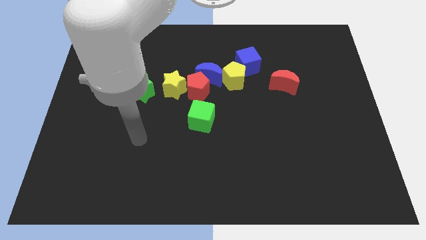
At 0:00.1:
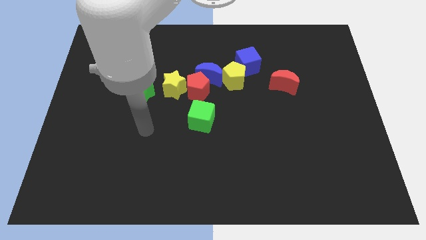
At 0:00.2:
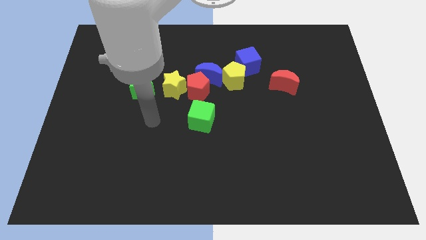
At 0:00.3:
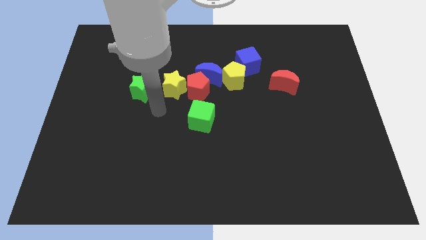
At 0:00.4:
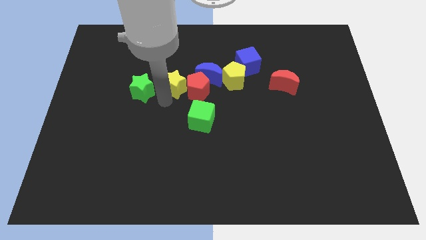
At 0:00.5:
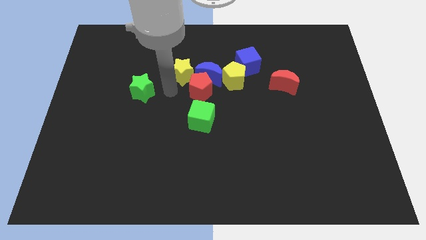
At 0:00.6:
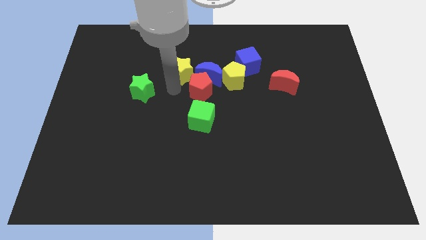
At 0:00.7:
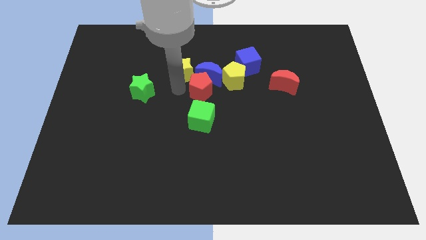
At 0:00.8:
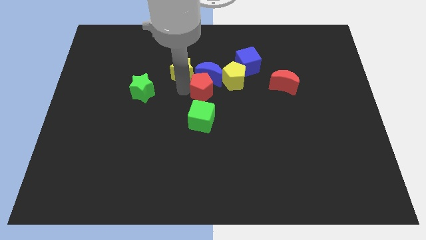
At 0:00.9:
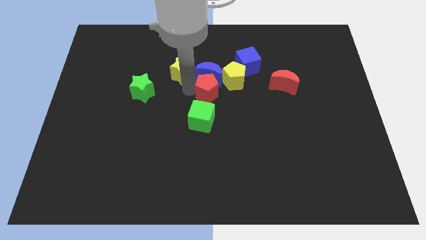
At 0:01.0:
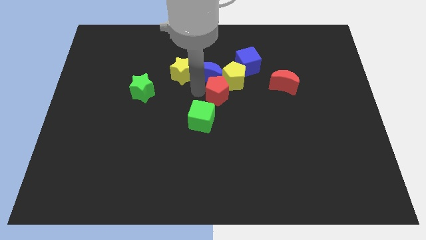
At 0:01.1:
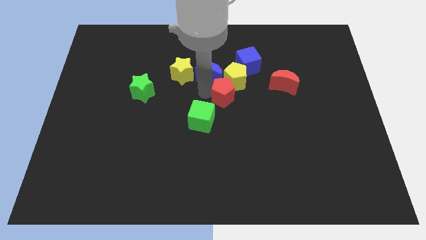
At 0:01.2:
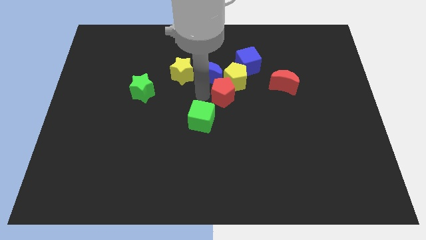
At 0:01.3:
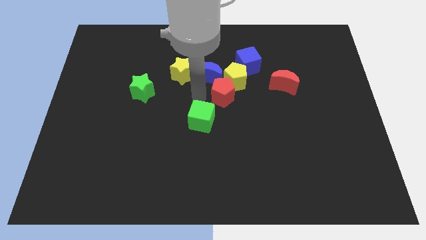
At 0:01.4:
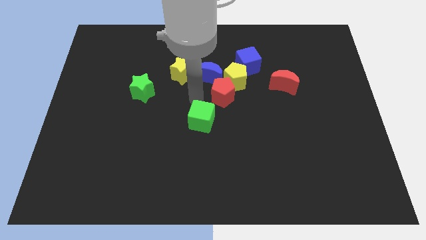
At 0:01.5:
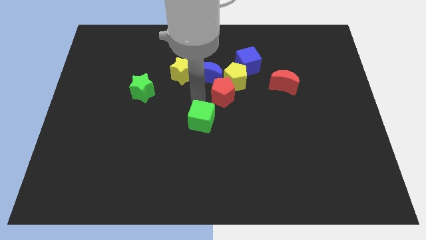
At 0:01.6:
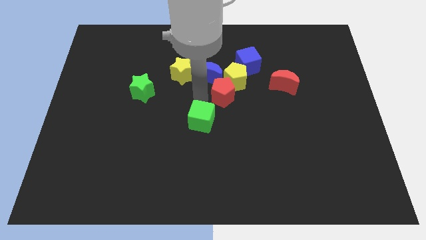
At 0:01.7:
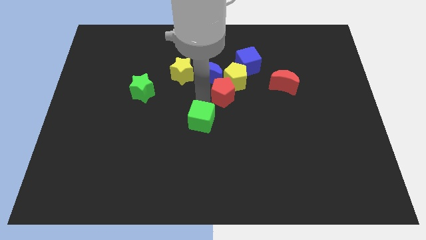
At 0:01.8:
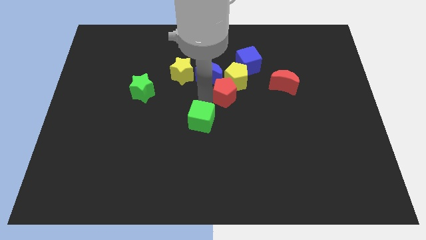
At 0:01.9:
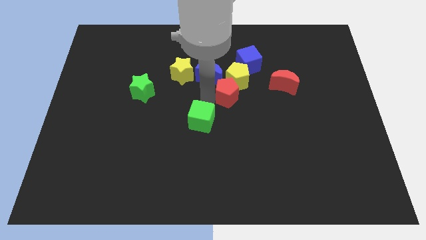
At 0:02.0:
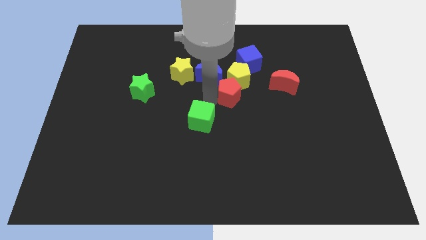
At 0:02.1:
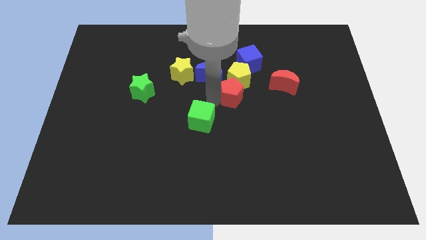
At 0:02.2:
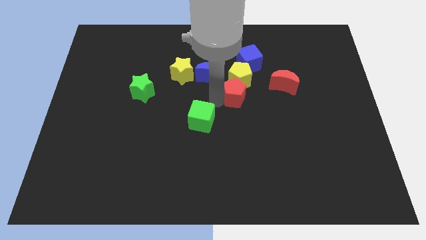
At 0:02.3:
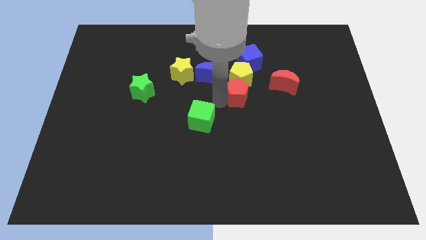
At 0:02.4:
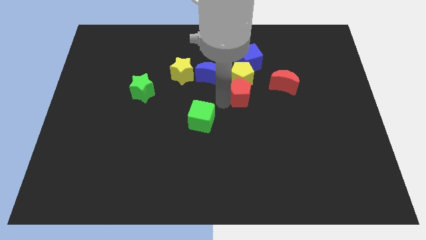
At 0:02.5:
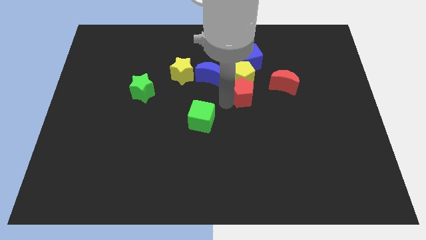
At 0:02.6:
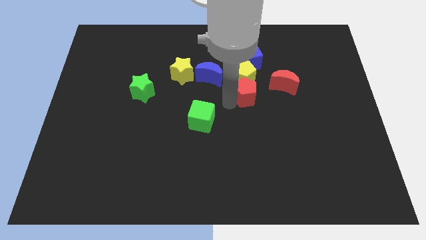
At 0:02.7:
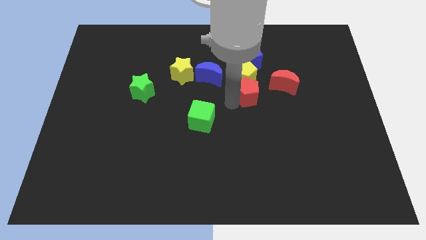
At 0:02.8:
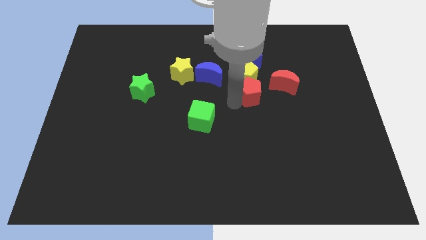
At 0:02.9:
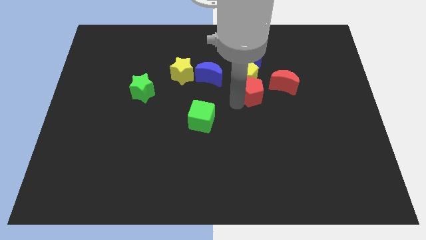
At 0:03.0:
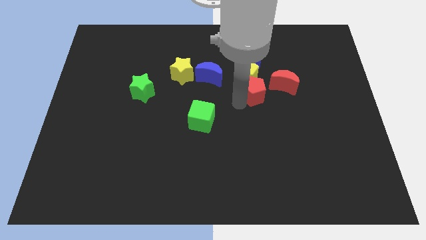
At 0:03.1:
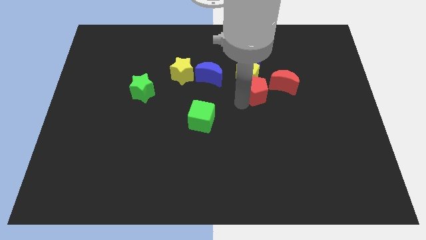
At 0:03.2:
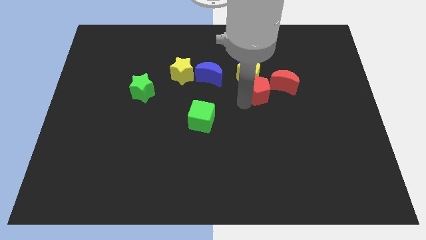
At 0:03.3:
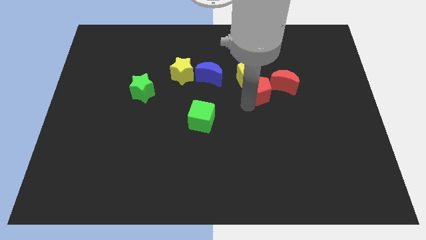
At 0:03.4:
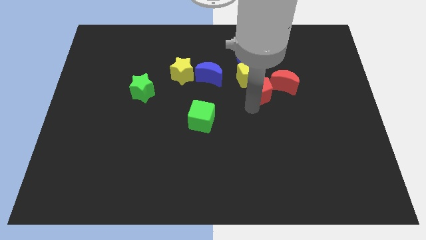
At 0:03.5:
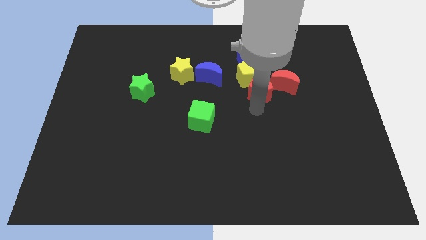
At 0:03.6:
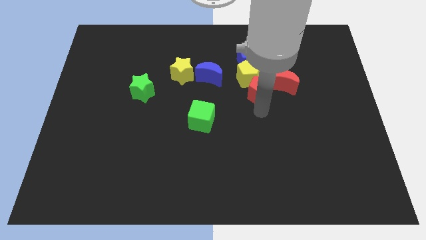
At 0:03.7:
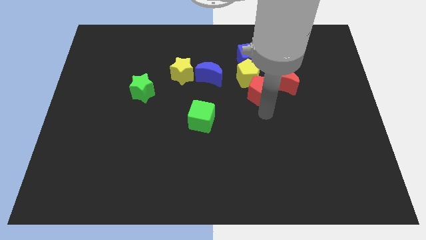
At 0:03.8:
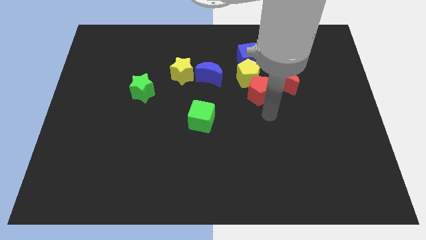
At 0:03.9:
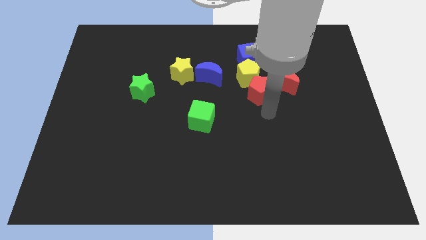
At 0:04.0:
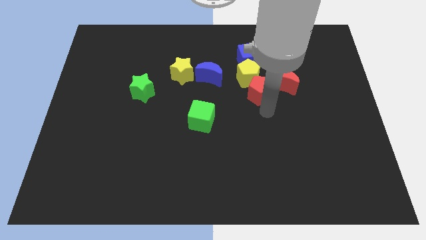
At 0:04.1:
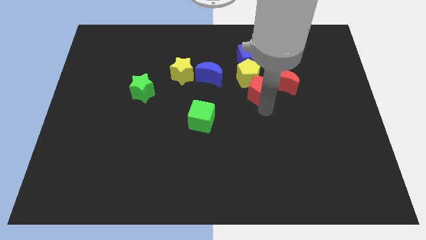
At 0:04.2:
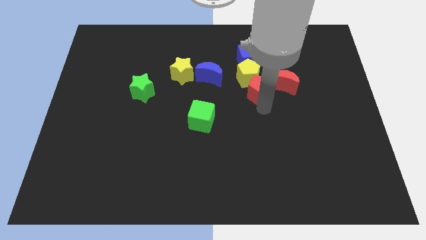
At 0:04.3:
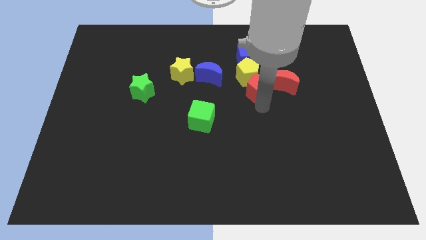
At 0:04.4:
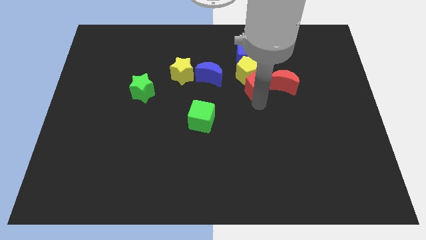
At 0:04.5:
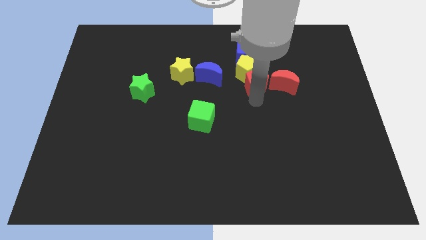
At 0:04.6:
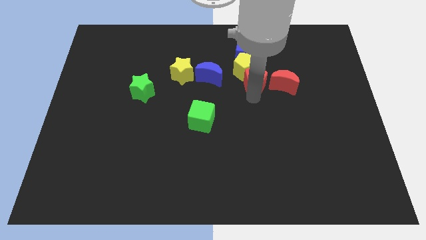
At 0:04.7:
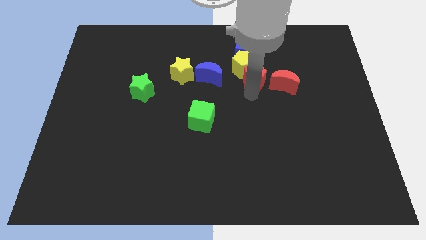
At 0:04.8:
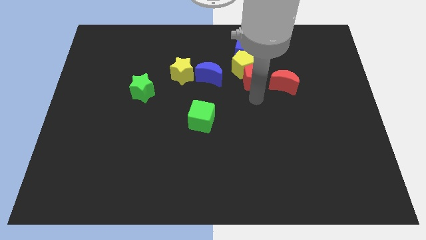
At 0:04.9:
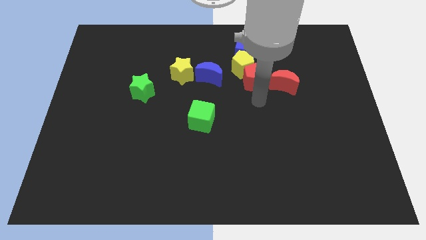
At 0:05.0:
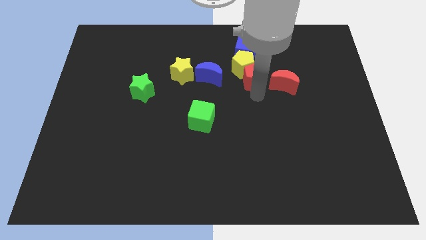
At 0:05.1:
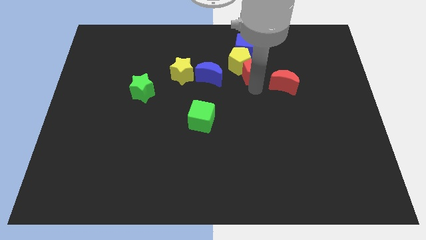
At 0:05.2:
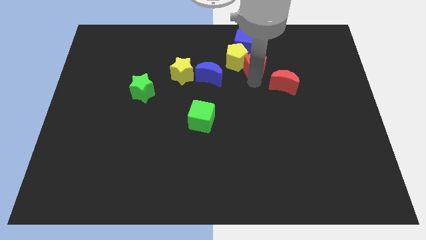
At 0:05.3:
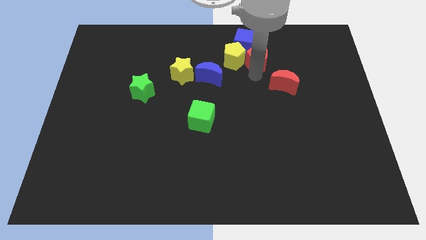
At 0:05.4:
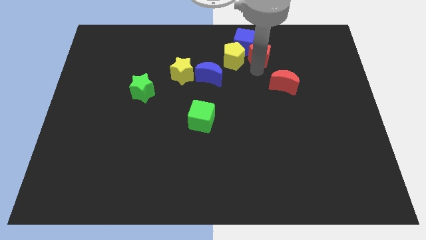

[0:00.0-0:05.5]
put the red pentagon to the blue cube

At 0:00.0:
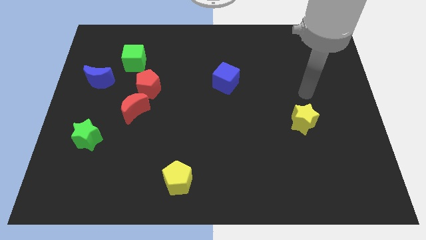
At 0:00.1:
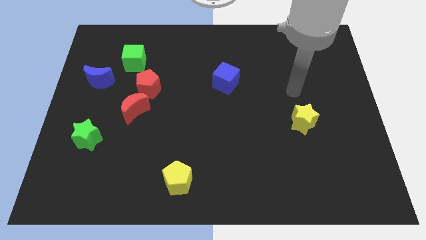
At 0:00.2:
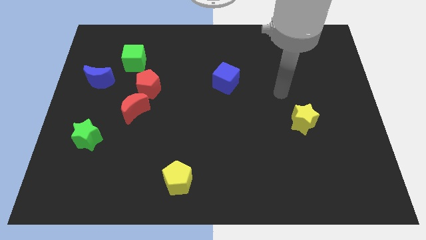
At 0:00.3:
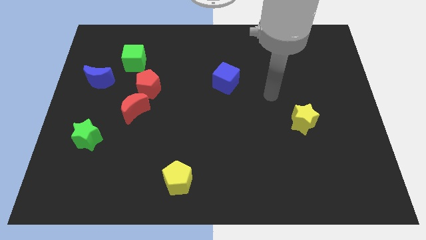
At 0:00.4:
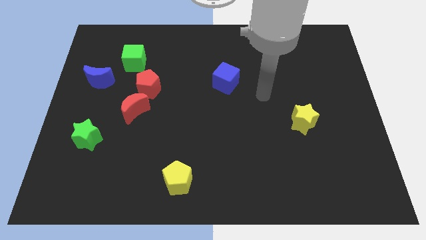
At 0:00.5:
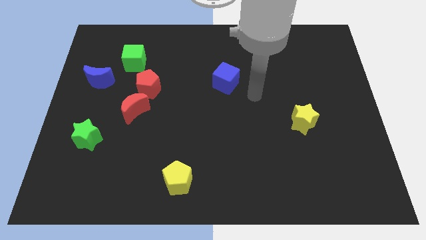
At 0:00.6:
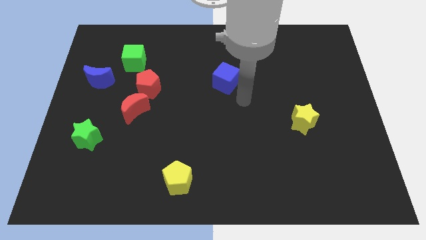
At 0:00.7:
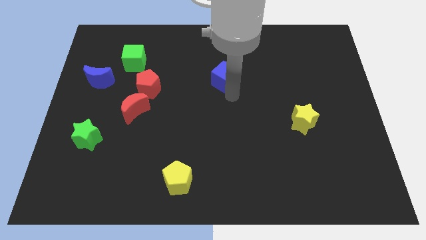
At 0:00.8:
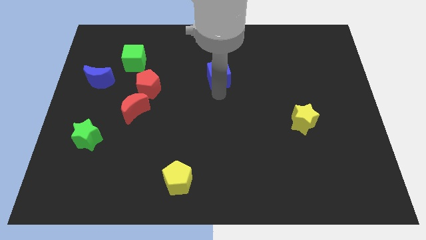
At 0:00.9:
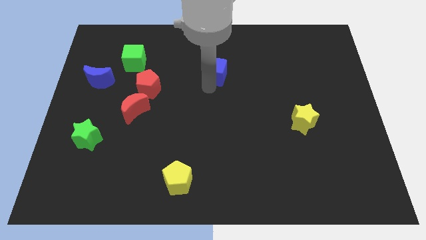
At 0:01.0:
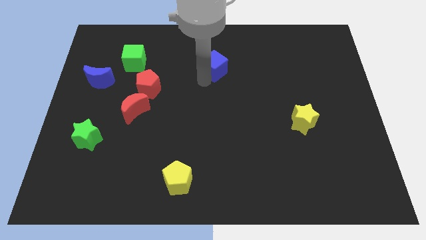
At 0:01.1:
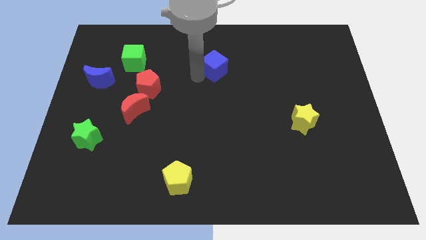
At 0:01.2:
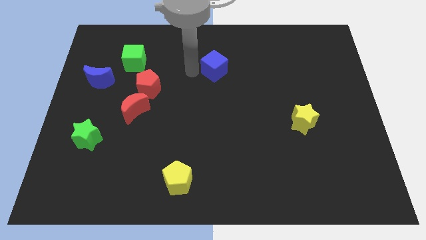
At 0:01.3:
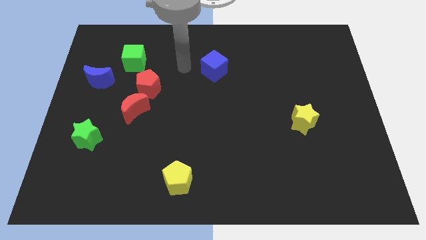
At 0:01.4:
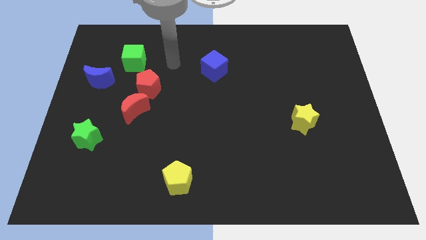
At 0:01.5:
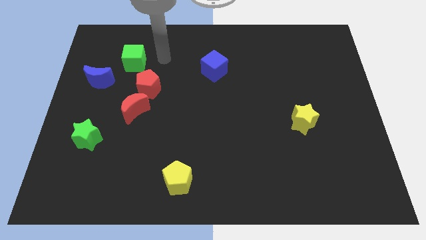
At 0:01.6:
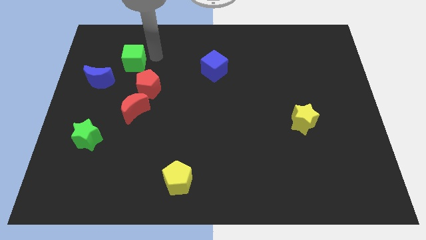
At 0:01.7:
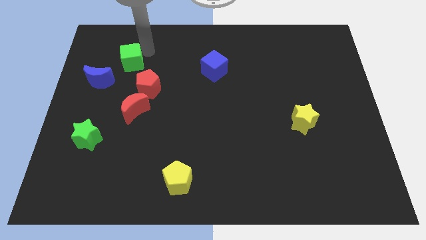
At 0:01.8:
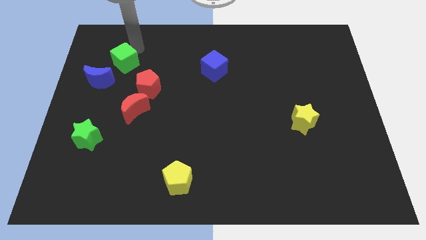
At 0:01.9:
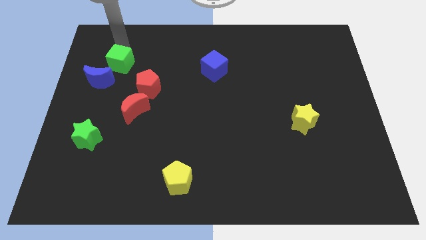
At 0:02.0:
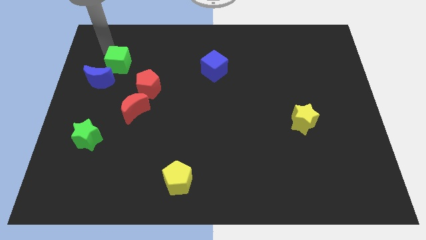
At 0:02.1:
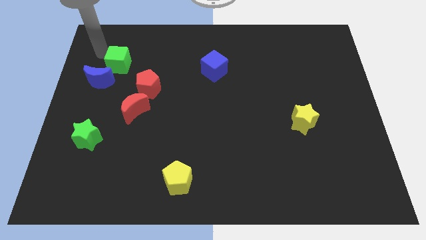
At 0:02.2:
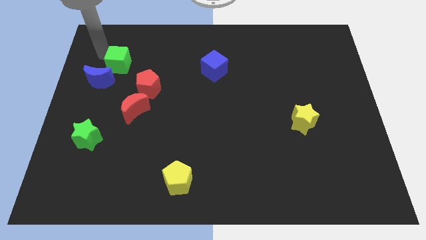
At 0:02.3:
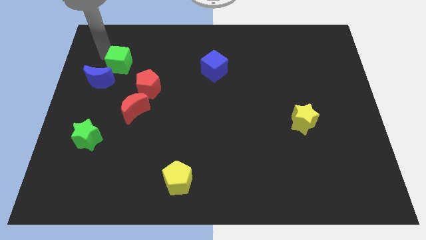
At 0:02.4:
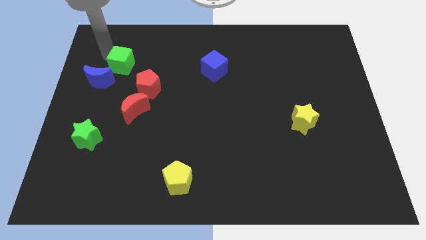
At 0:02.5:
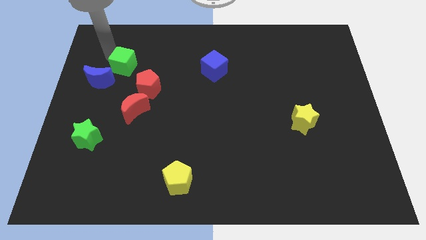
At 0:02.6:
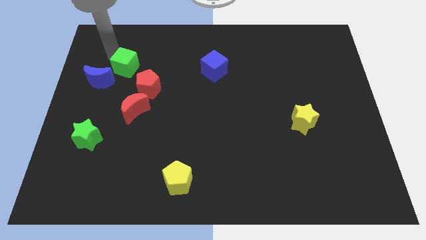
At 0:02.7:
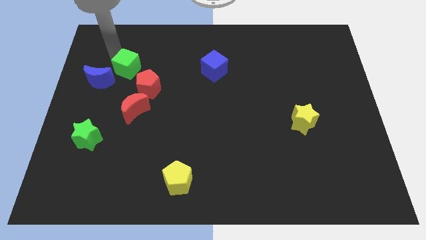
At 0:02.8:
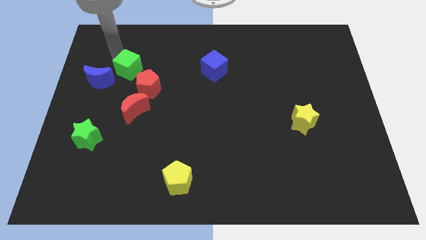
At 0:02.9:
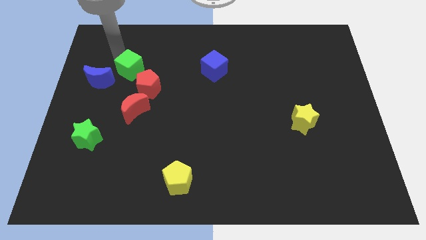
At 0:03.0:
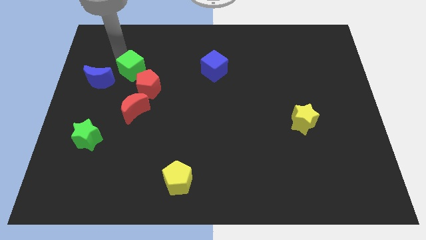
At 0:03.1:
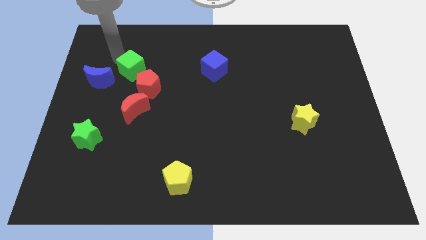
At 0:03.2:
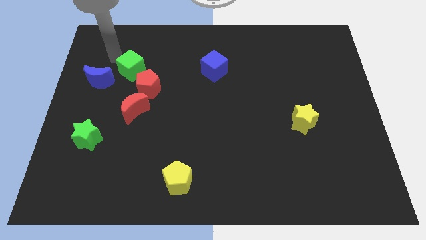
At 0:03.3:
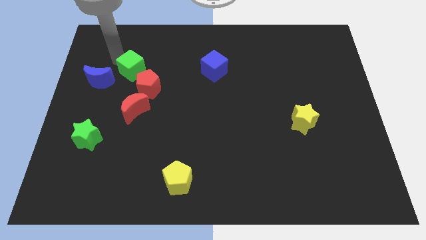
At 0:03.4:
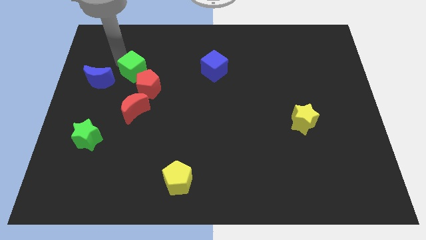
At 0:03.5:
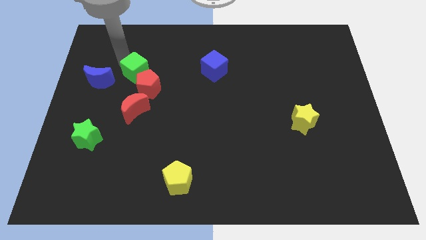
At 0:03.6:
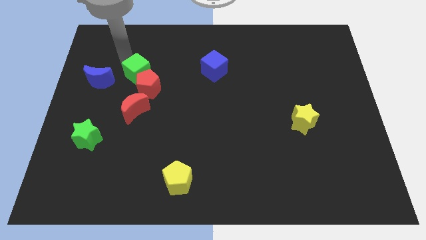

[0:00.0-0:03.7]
move the green cube to the red pentagon
